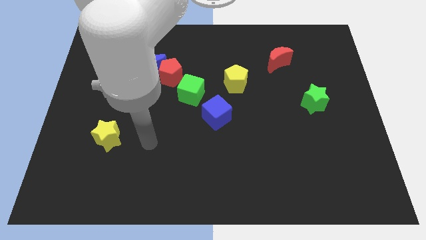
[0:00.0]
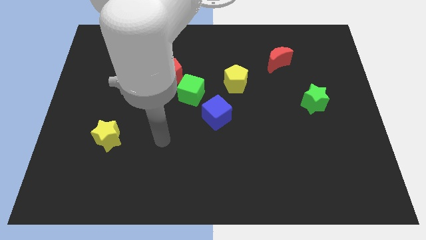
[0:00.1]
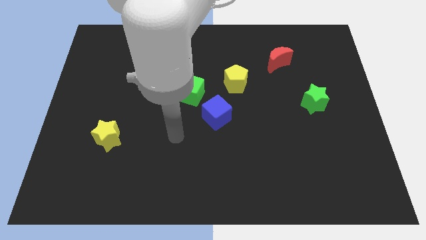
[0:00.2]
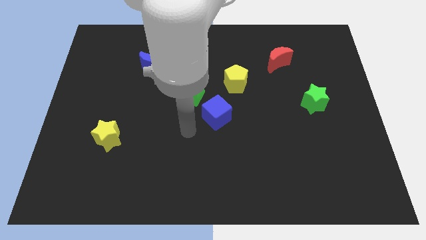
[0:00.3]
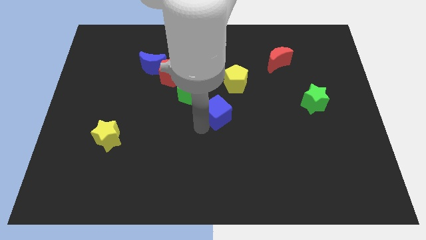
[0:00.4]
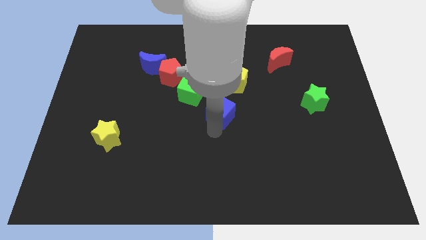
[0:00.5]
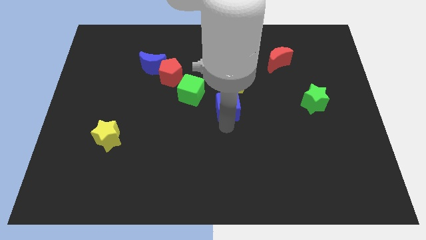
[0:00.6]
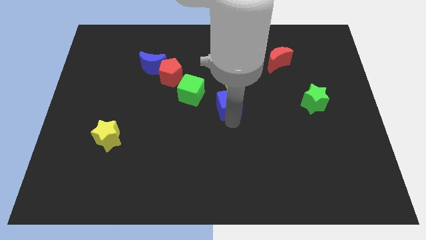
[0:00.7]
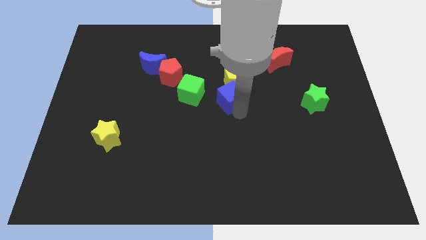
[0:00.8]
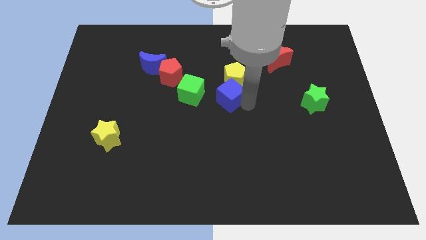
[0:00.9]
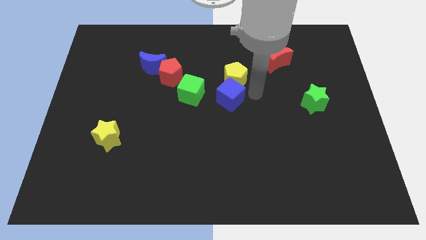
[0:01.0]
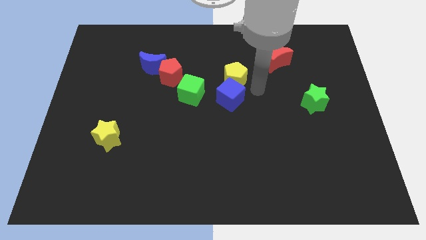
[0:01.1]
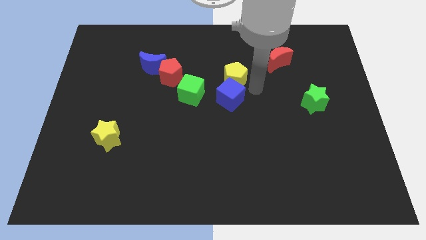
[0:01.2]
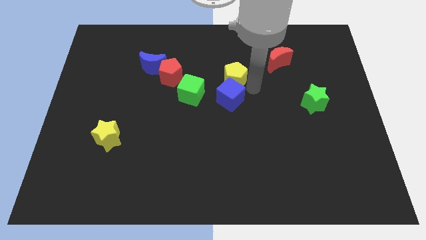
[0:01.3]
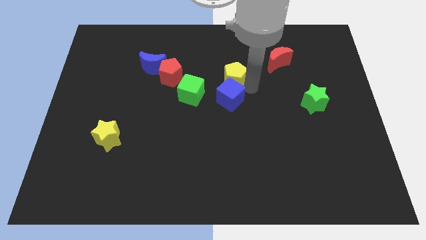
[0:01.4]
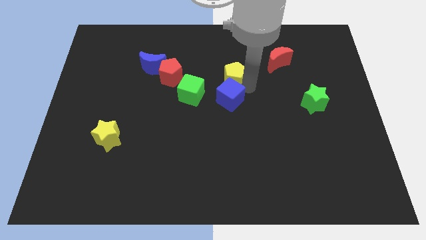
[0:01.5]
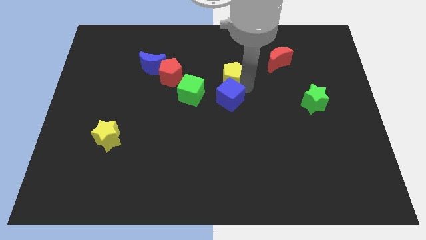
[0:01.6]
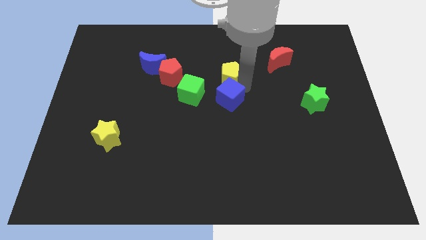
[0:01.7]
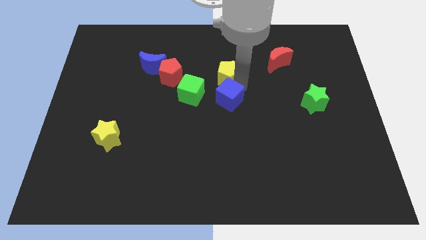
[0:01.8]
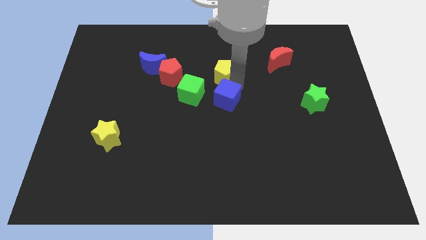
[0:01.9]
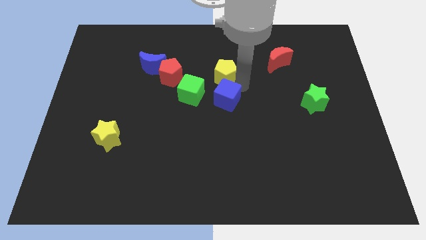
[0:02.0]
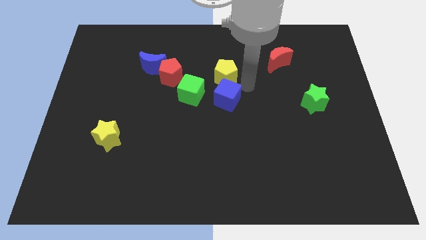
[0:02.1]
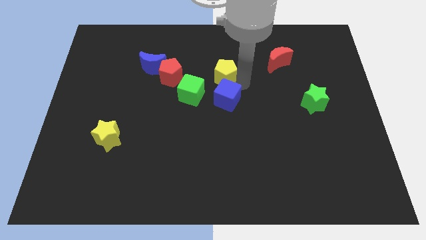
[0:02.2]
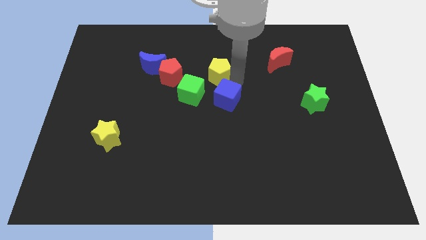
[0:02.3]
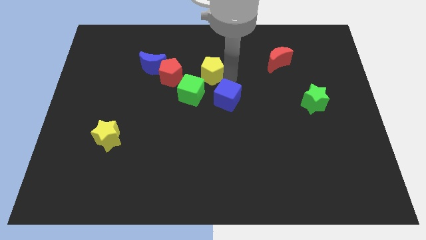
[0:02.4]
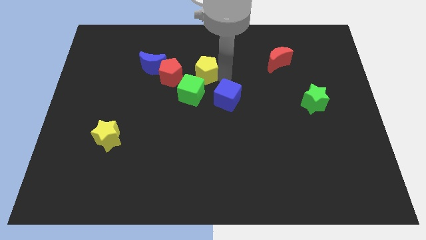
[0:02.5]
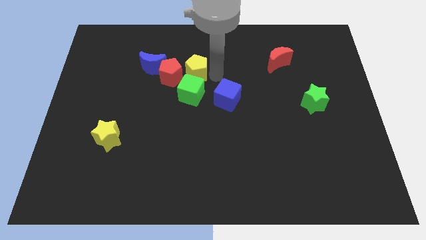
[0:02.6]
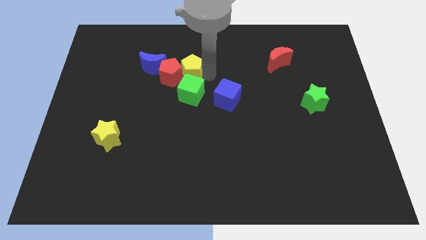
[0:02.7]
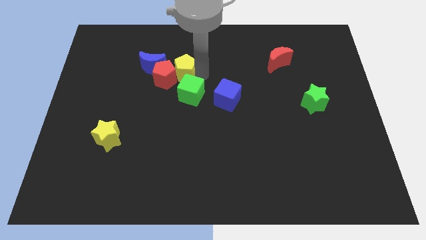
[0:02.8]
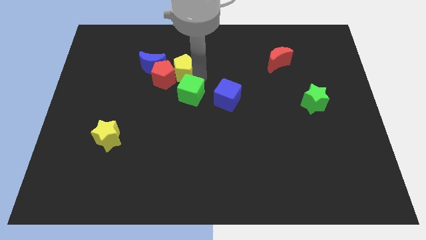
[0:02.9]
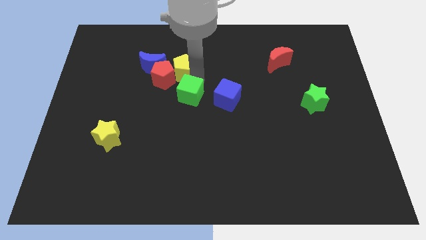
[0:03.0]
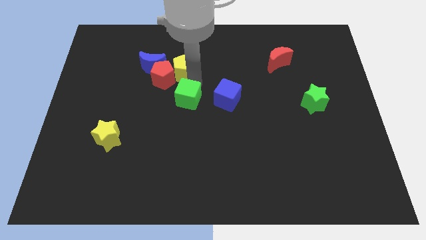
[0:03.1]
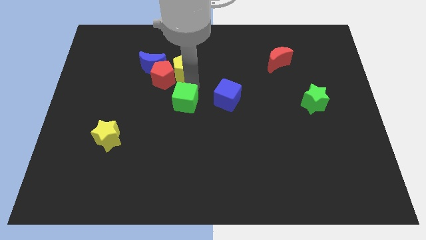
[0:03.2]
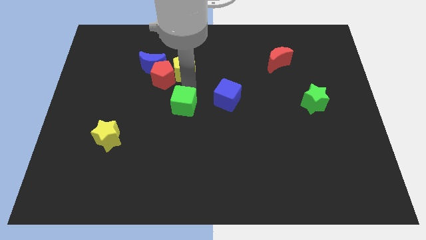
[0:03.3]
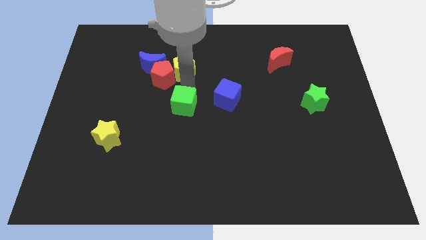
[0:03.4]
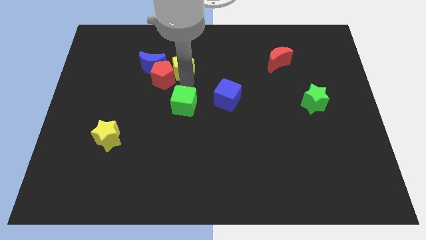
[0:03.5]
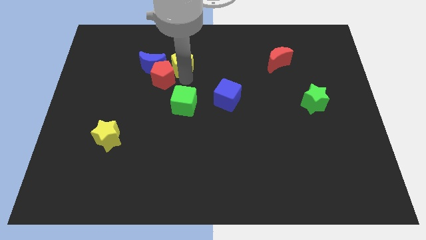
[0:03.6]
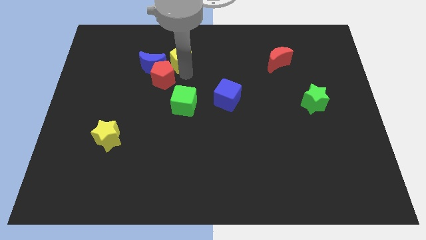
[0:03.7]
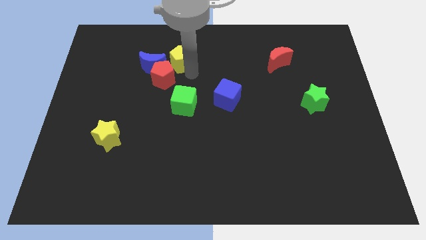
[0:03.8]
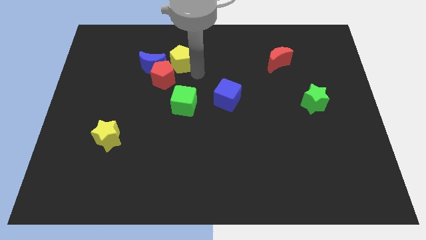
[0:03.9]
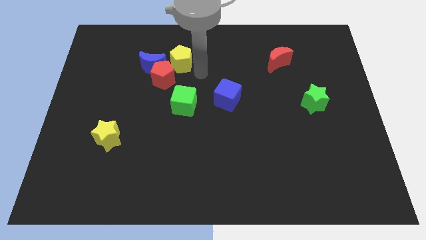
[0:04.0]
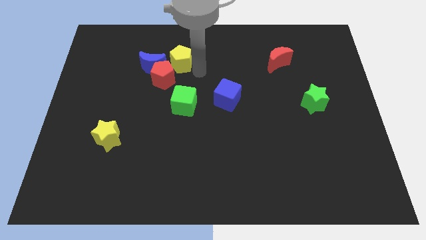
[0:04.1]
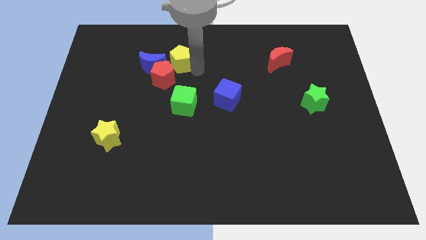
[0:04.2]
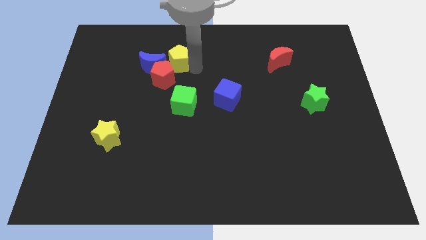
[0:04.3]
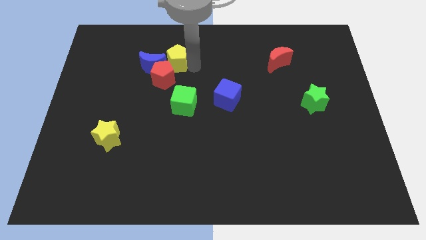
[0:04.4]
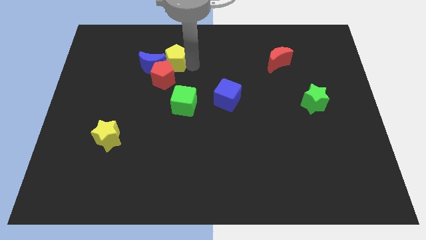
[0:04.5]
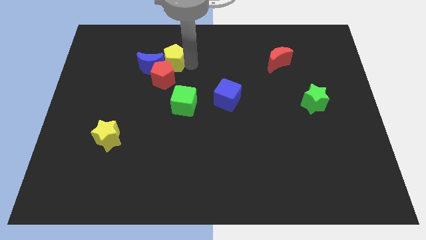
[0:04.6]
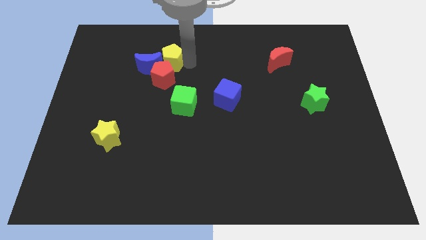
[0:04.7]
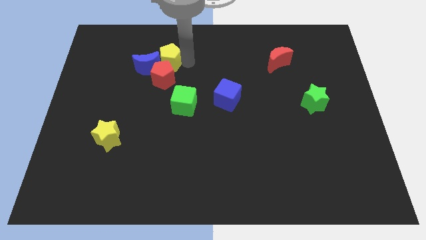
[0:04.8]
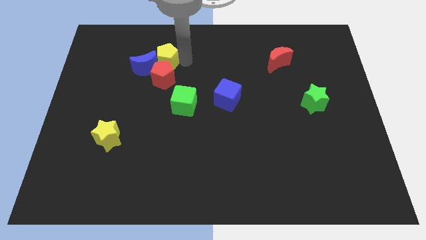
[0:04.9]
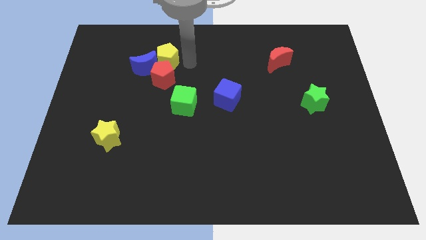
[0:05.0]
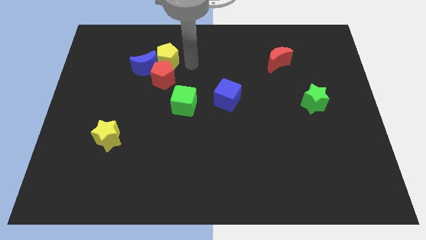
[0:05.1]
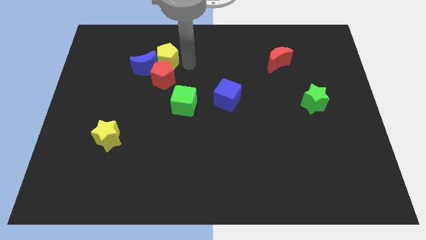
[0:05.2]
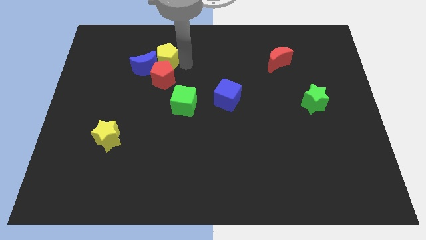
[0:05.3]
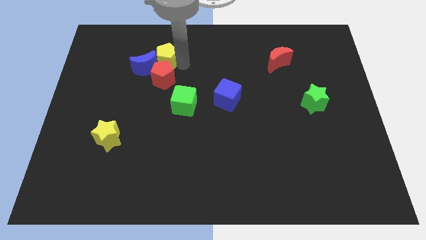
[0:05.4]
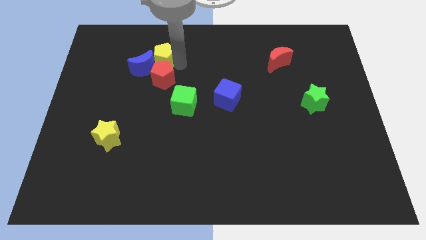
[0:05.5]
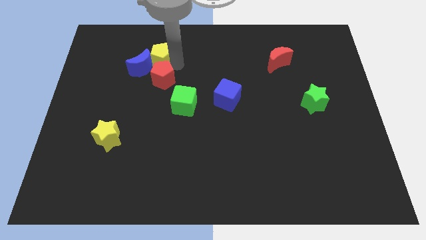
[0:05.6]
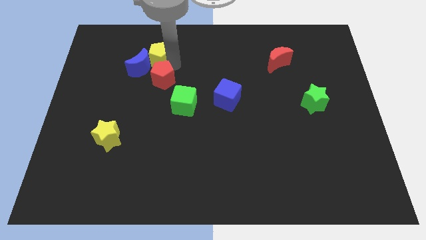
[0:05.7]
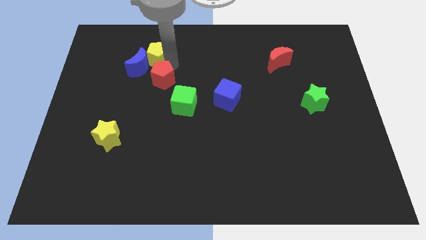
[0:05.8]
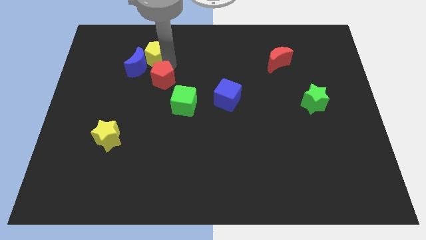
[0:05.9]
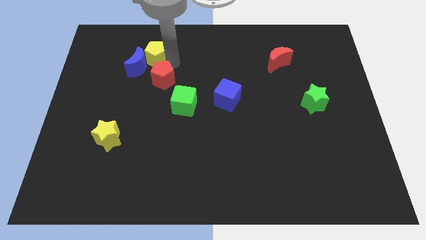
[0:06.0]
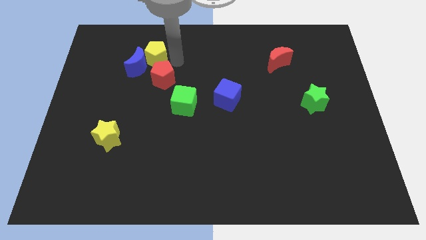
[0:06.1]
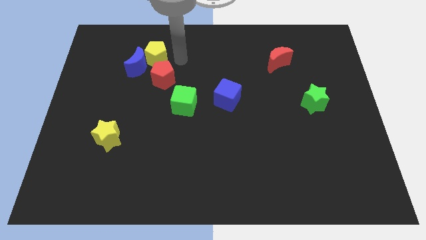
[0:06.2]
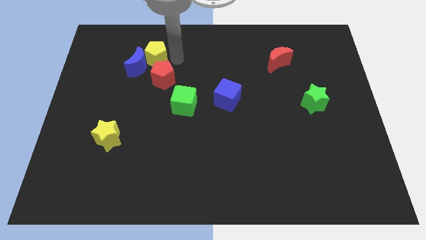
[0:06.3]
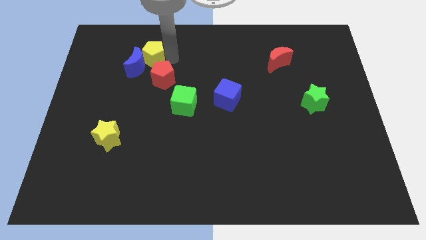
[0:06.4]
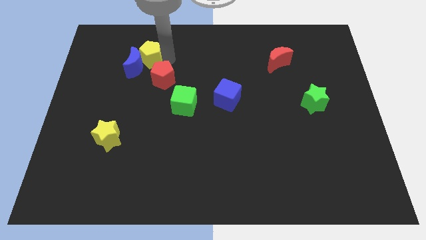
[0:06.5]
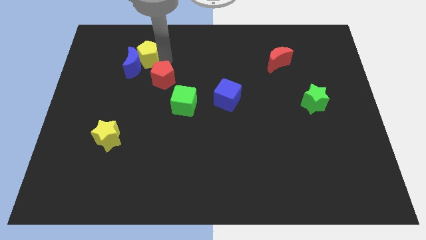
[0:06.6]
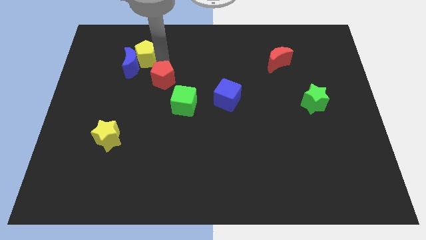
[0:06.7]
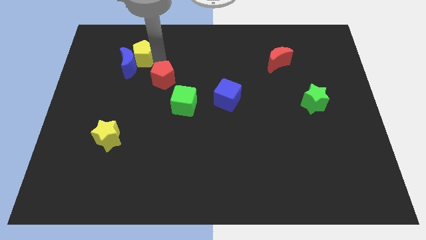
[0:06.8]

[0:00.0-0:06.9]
slide the yellow pentagon to the left

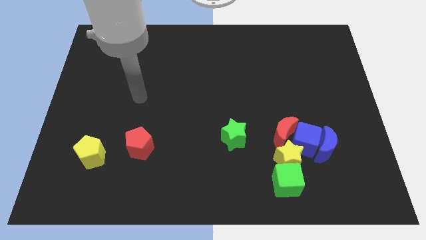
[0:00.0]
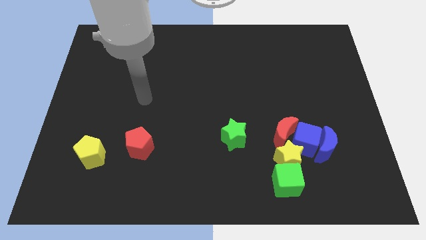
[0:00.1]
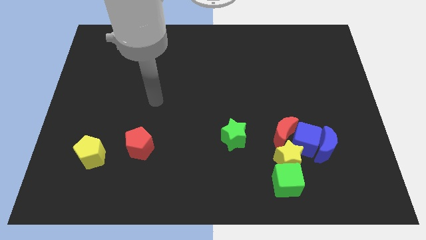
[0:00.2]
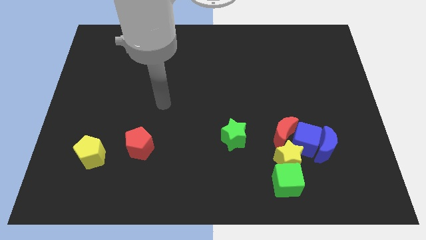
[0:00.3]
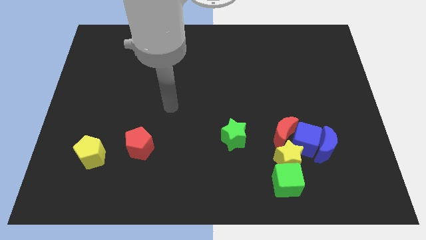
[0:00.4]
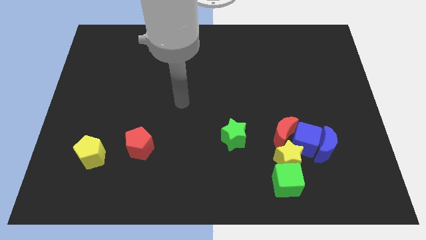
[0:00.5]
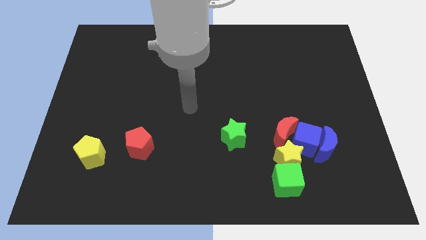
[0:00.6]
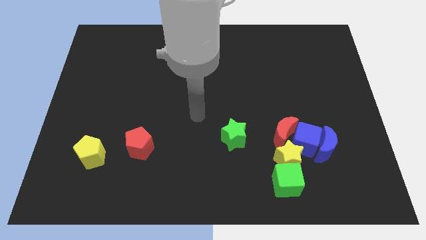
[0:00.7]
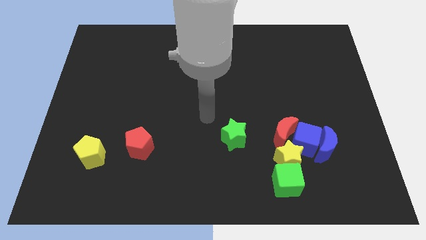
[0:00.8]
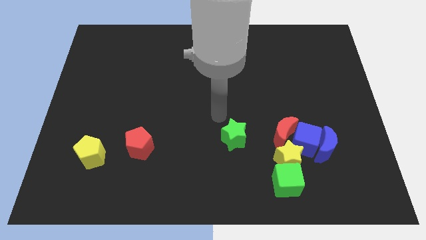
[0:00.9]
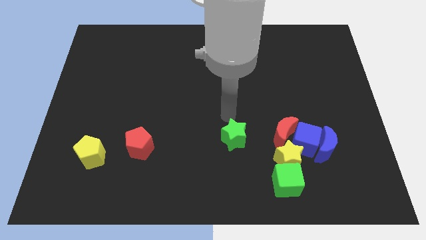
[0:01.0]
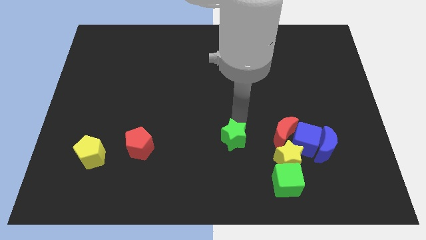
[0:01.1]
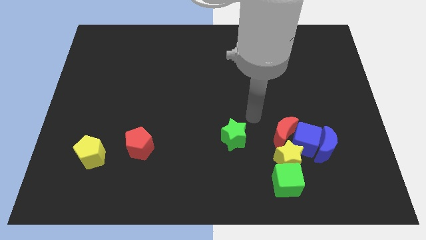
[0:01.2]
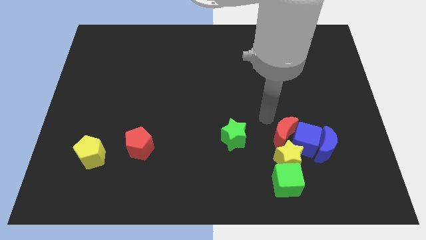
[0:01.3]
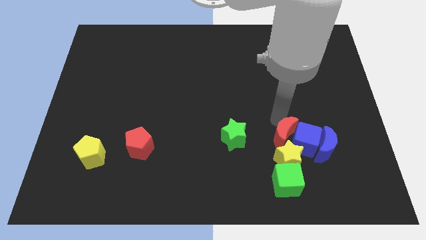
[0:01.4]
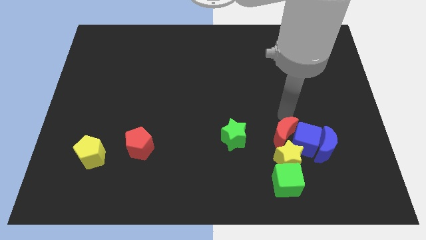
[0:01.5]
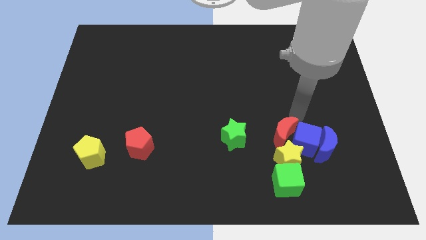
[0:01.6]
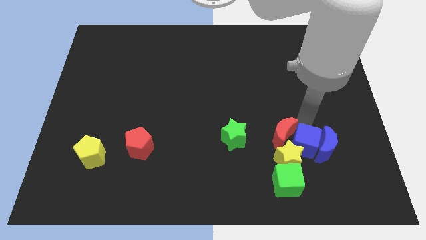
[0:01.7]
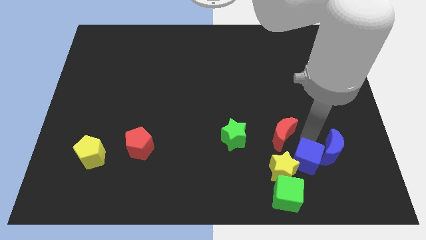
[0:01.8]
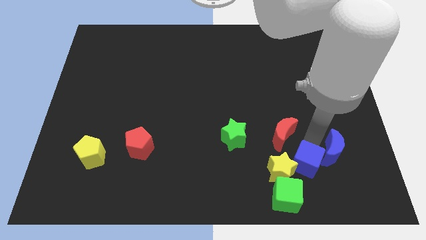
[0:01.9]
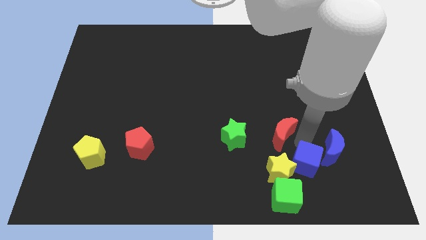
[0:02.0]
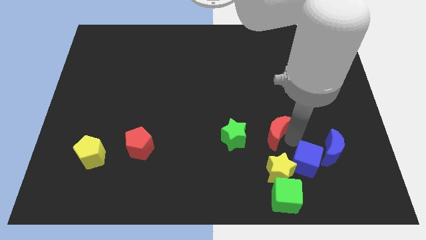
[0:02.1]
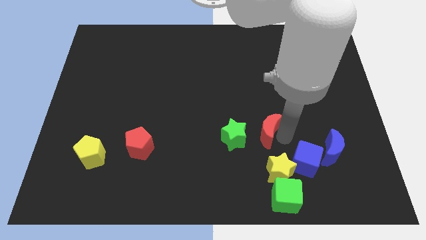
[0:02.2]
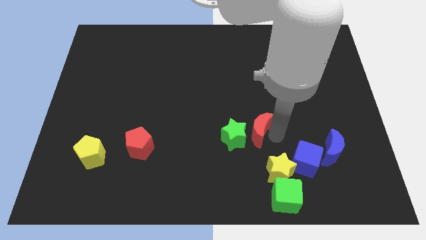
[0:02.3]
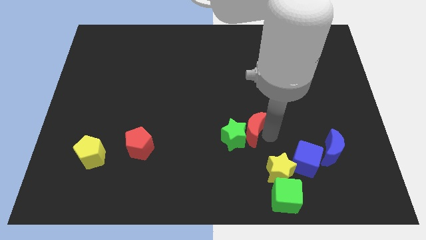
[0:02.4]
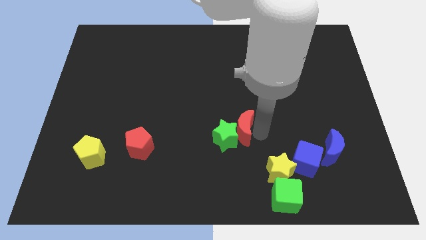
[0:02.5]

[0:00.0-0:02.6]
slightly slide the red moon to the left
